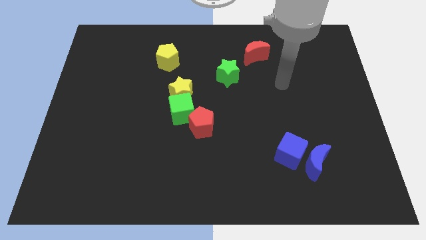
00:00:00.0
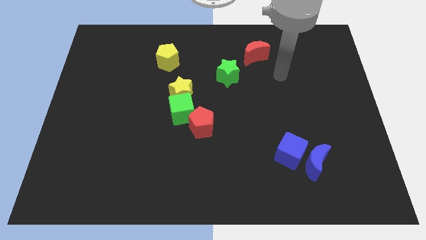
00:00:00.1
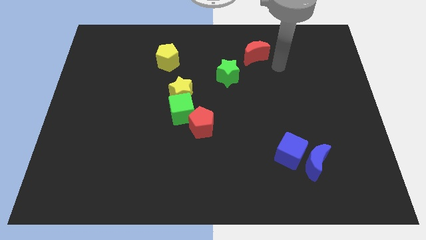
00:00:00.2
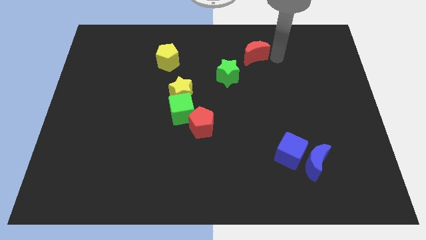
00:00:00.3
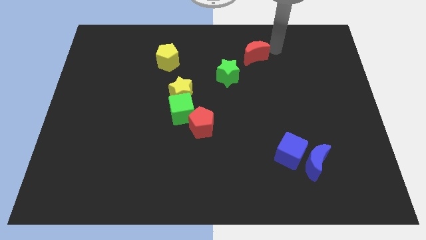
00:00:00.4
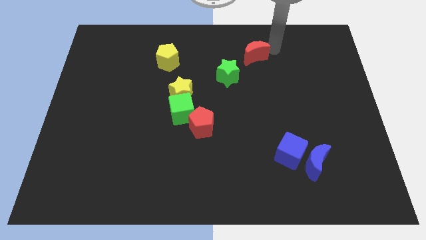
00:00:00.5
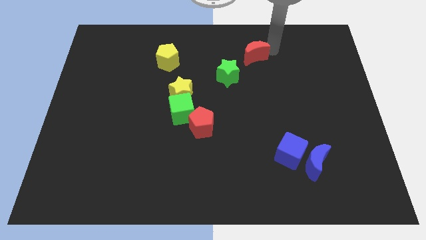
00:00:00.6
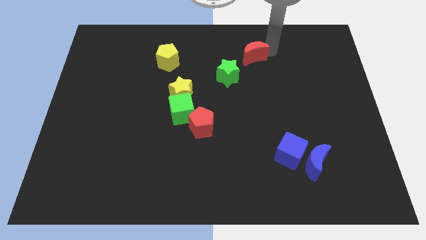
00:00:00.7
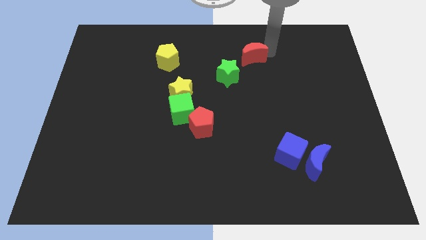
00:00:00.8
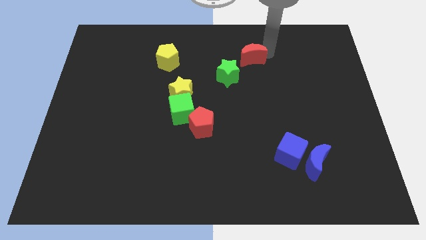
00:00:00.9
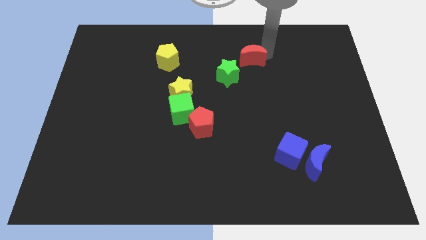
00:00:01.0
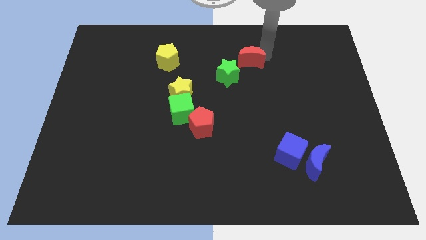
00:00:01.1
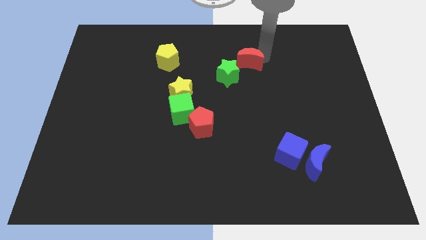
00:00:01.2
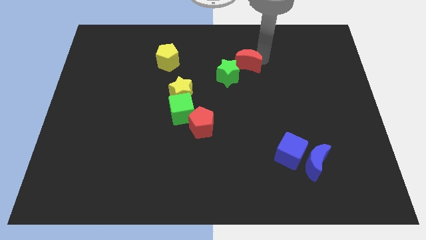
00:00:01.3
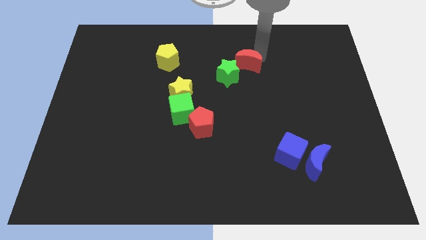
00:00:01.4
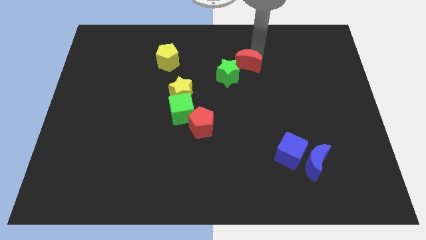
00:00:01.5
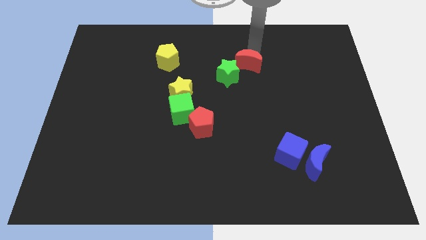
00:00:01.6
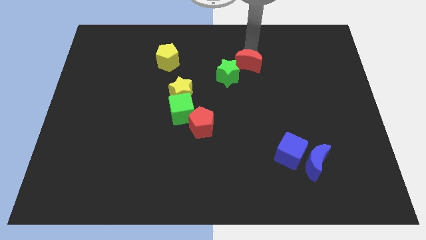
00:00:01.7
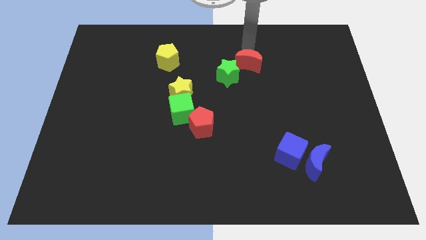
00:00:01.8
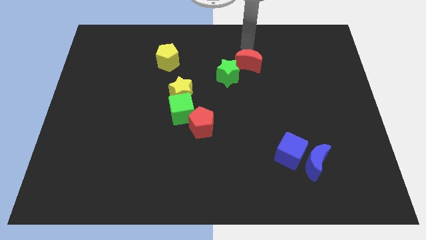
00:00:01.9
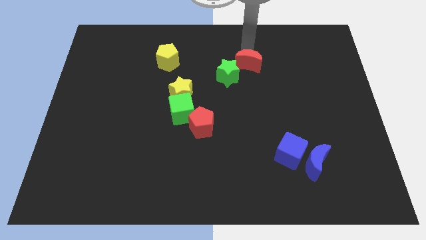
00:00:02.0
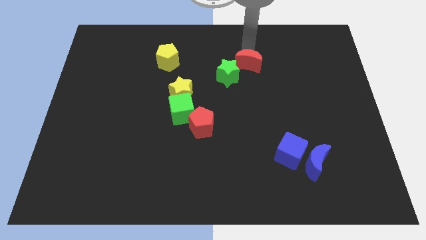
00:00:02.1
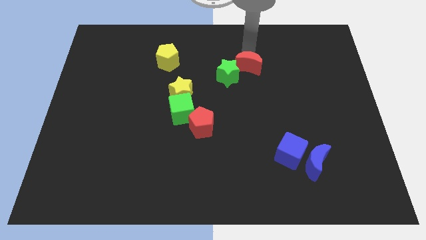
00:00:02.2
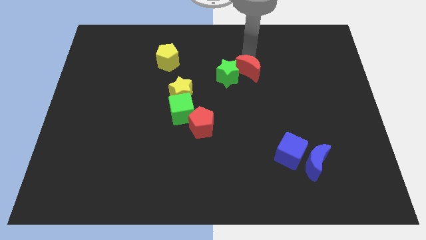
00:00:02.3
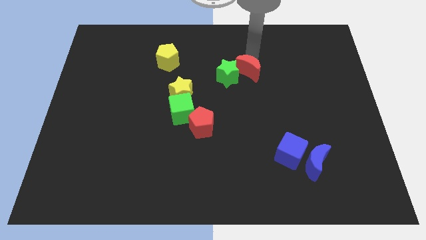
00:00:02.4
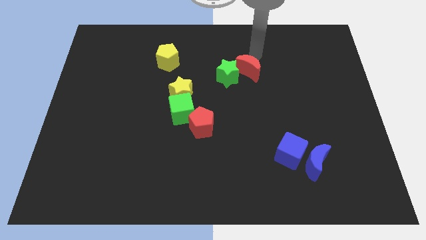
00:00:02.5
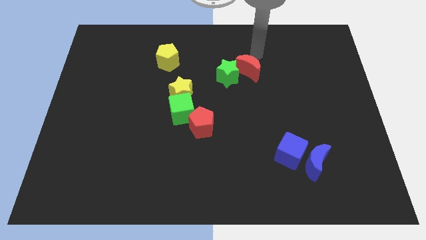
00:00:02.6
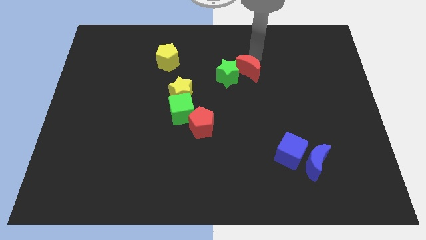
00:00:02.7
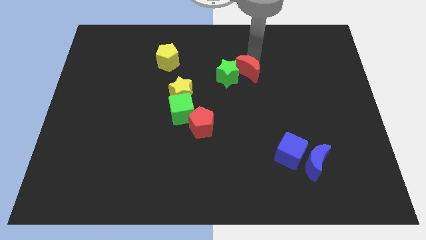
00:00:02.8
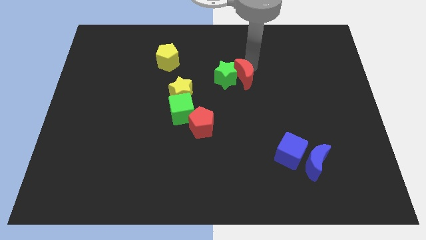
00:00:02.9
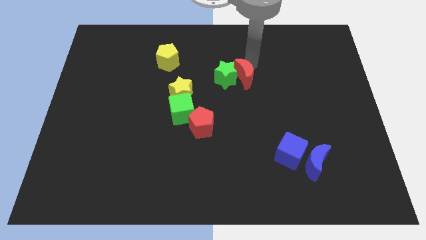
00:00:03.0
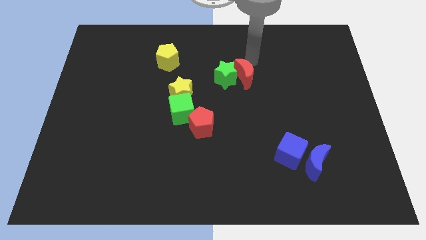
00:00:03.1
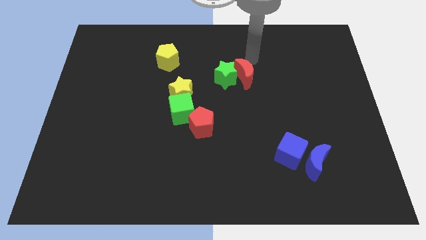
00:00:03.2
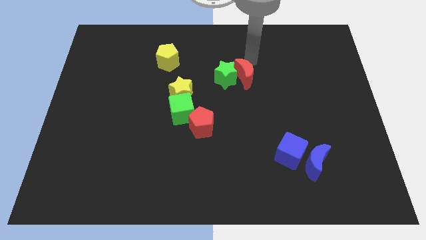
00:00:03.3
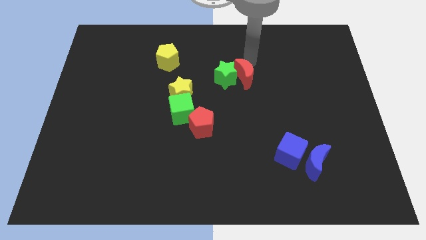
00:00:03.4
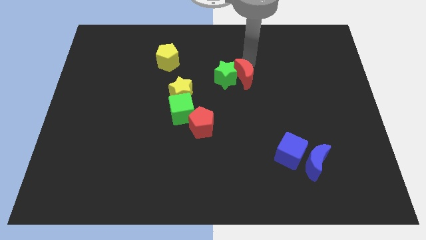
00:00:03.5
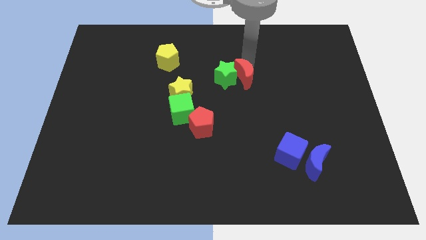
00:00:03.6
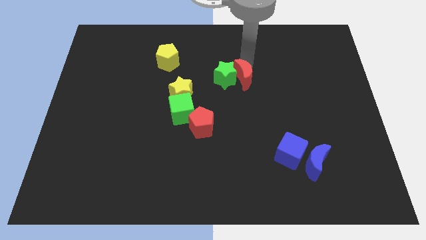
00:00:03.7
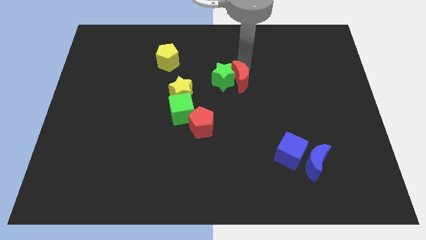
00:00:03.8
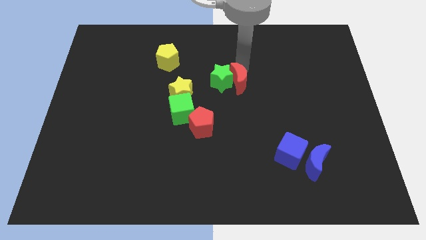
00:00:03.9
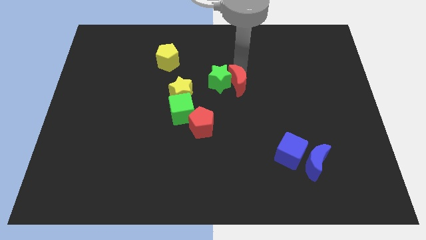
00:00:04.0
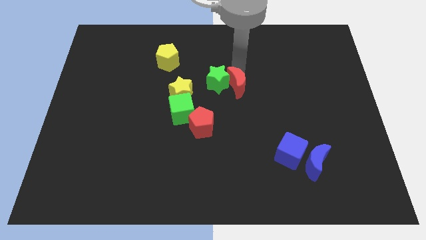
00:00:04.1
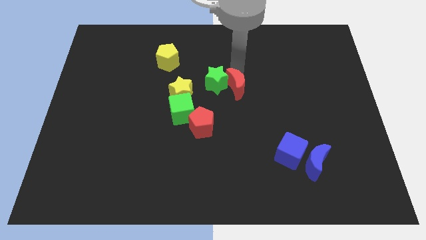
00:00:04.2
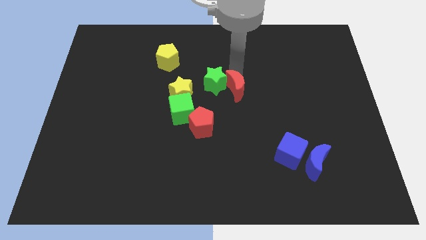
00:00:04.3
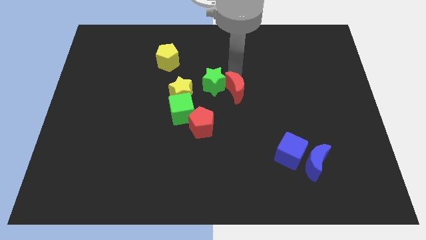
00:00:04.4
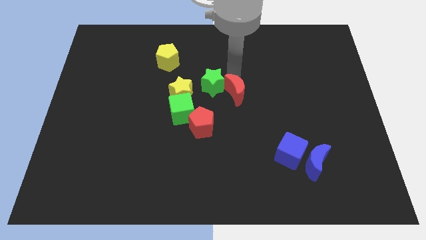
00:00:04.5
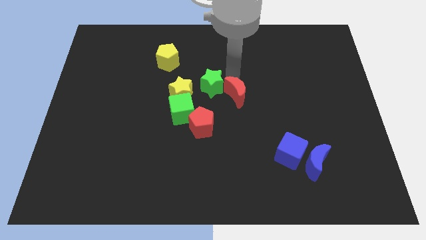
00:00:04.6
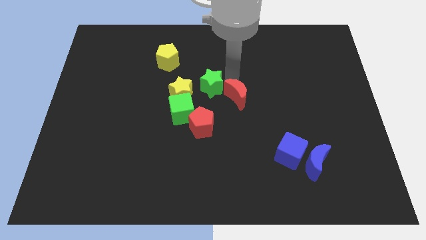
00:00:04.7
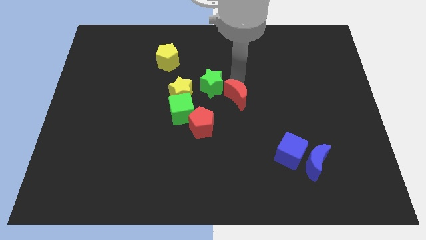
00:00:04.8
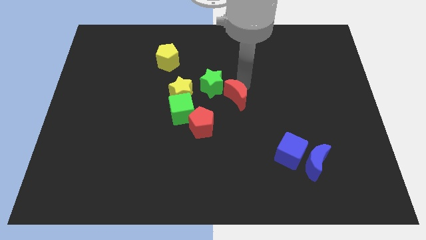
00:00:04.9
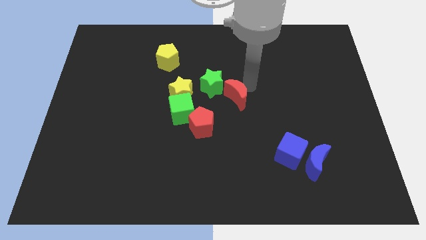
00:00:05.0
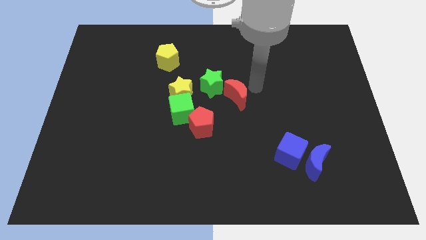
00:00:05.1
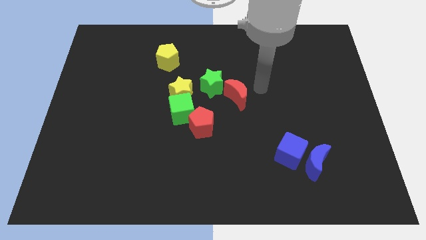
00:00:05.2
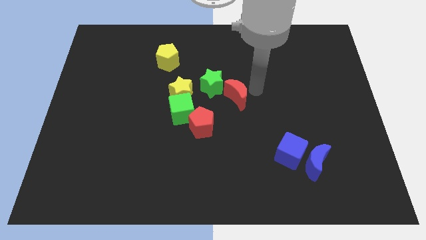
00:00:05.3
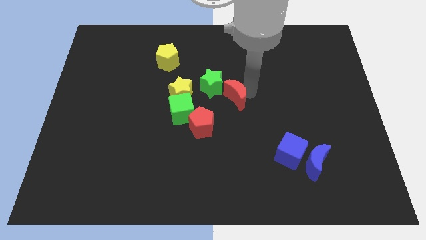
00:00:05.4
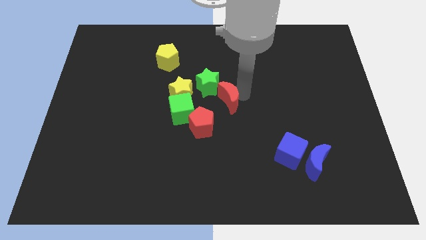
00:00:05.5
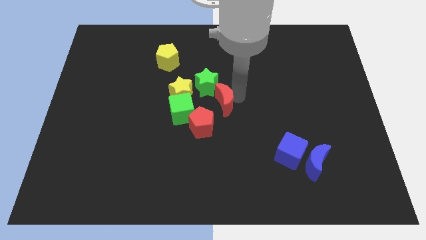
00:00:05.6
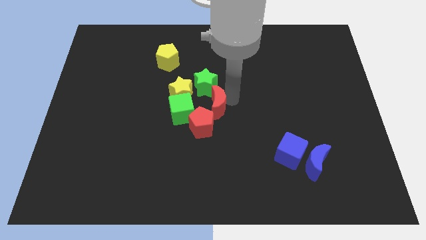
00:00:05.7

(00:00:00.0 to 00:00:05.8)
slide the red moon to the bottom right of the yellow star
